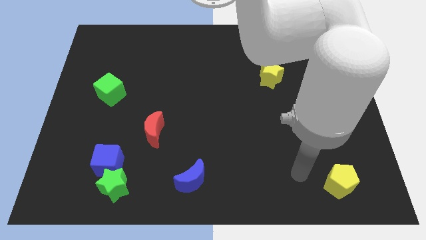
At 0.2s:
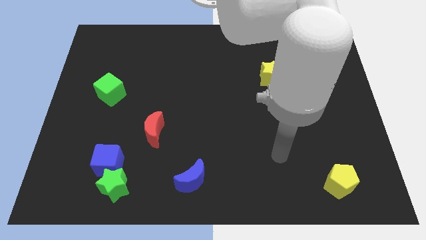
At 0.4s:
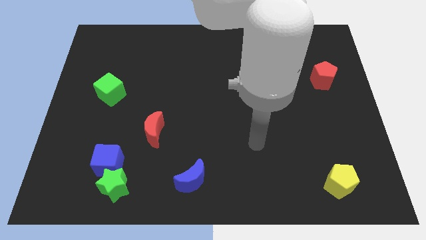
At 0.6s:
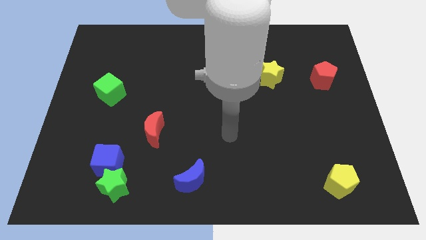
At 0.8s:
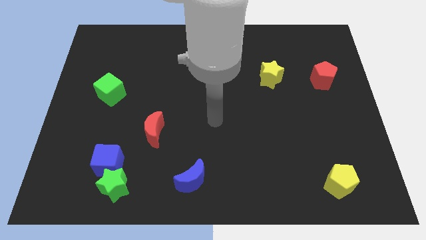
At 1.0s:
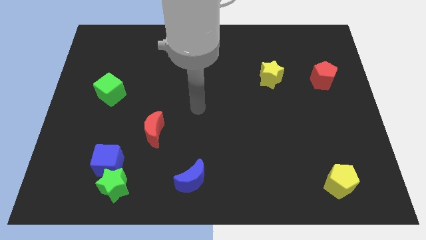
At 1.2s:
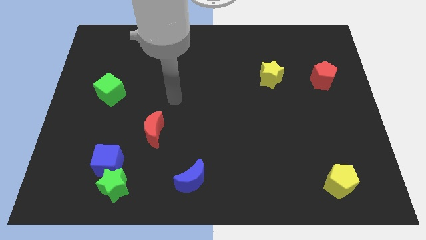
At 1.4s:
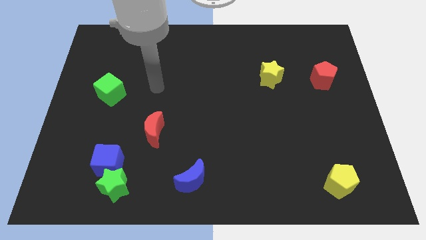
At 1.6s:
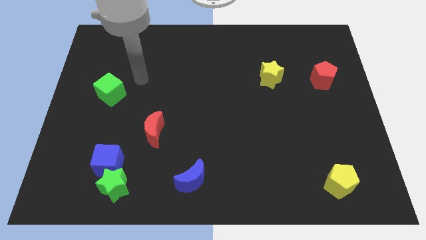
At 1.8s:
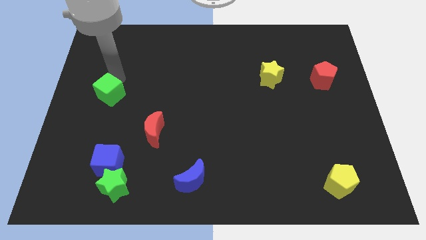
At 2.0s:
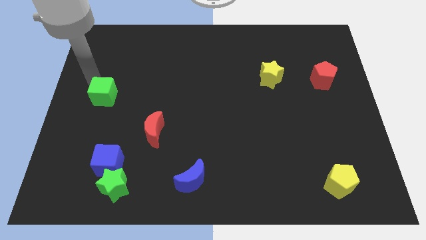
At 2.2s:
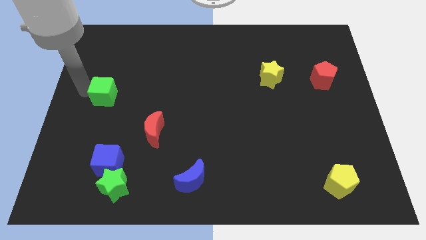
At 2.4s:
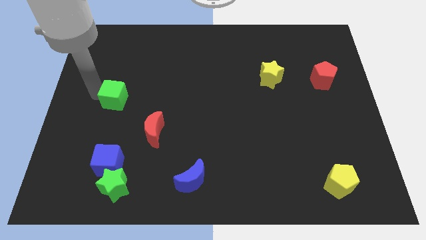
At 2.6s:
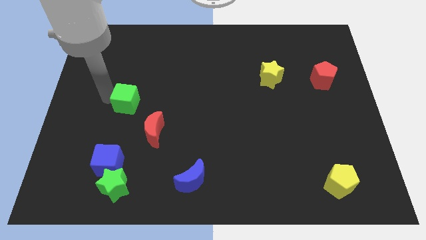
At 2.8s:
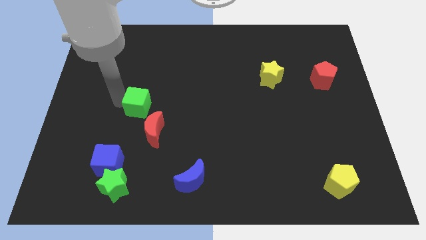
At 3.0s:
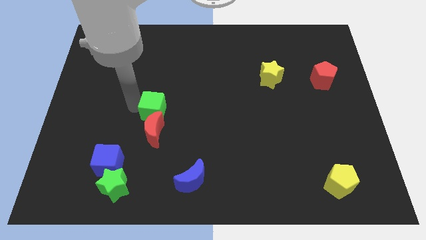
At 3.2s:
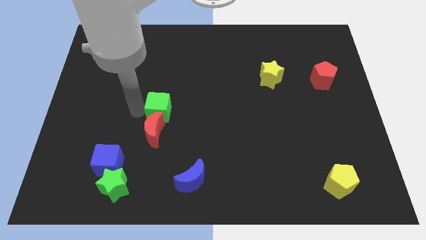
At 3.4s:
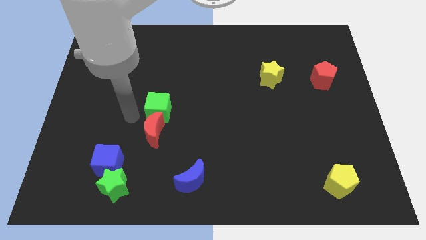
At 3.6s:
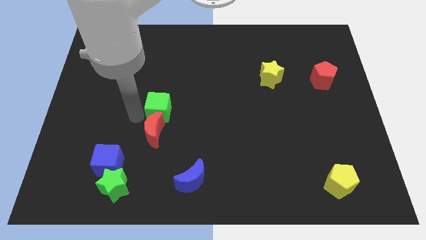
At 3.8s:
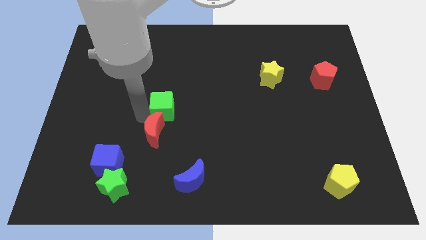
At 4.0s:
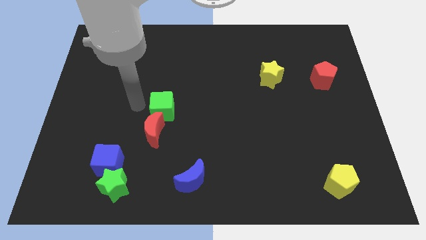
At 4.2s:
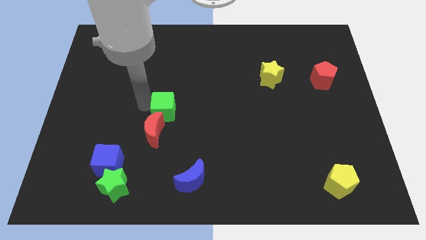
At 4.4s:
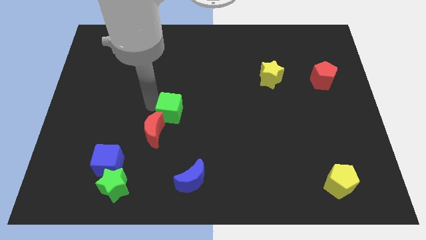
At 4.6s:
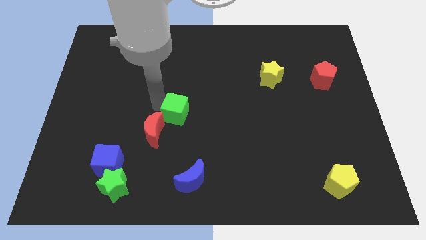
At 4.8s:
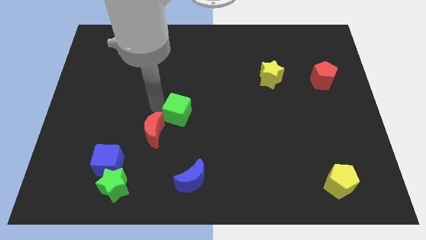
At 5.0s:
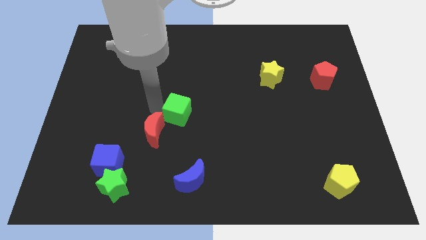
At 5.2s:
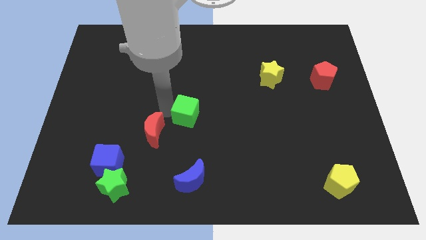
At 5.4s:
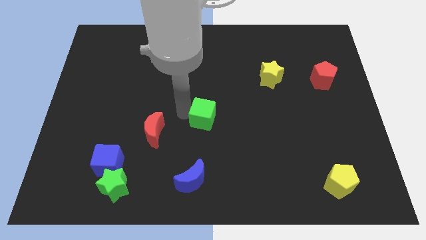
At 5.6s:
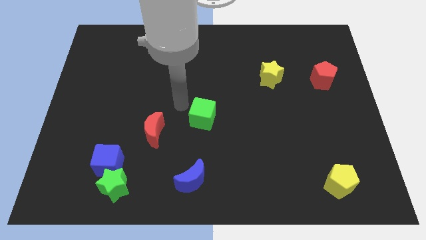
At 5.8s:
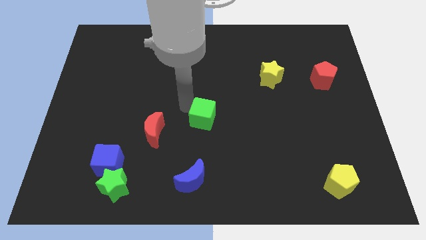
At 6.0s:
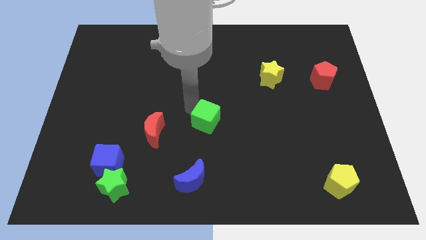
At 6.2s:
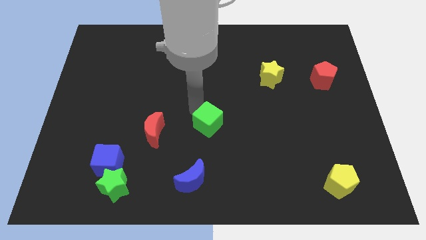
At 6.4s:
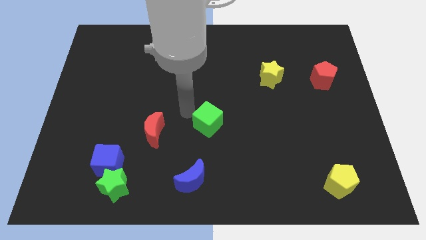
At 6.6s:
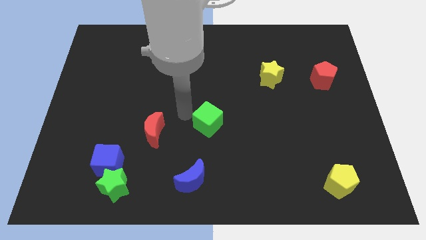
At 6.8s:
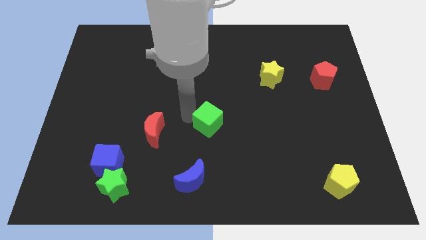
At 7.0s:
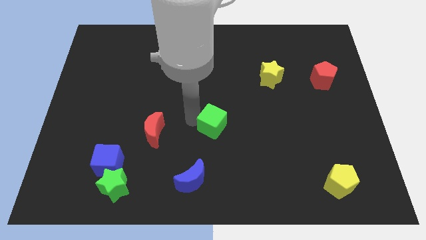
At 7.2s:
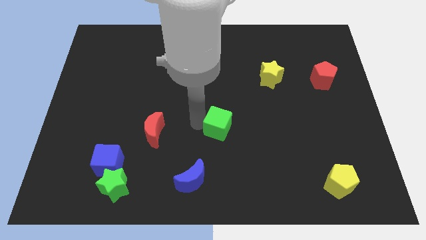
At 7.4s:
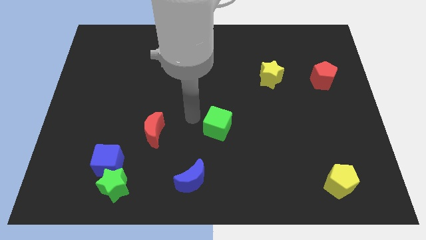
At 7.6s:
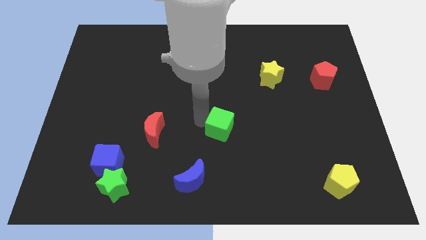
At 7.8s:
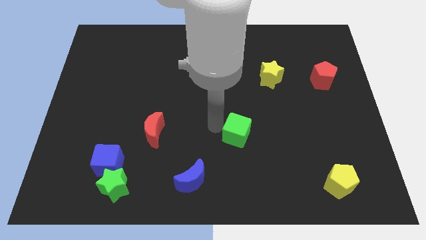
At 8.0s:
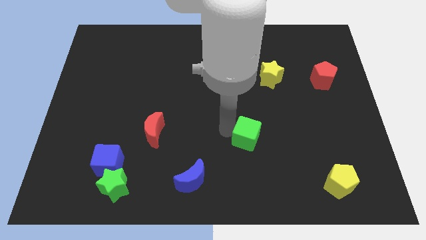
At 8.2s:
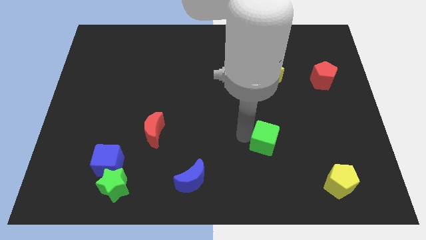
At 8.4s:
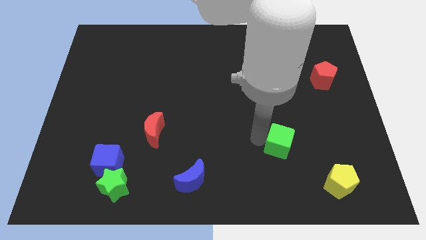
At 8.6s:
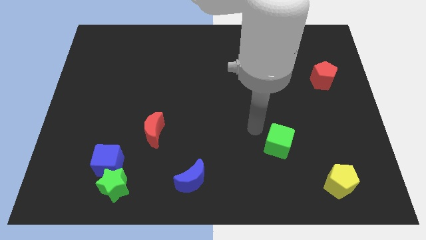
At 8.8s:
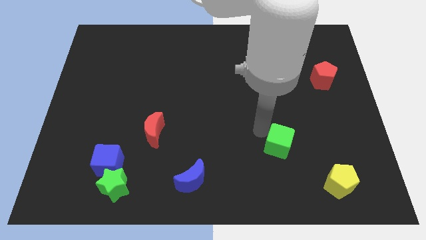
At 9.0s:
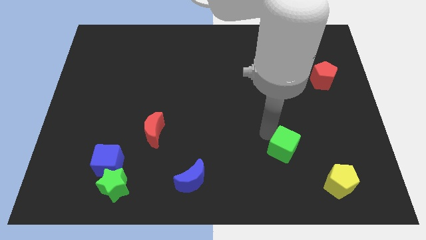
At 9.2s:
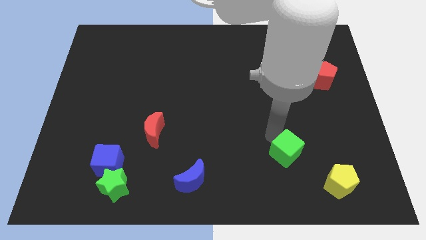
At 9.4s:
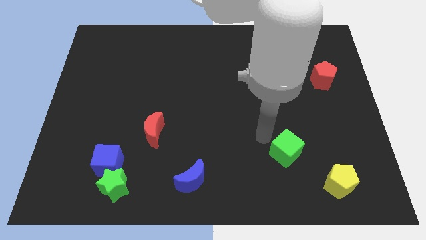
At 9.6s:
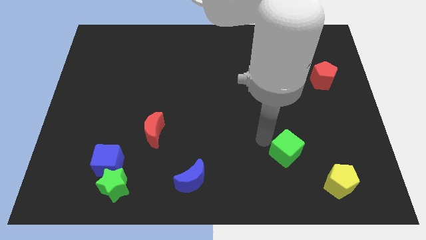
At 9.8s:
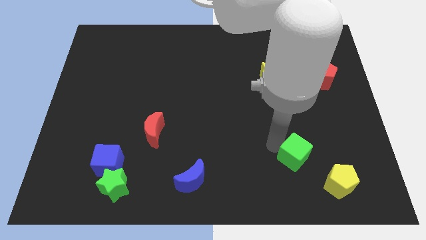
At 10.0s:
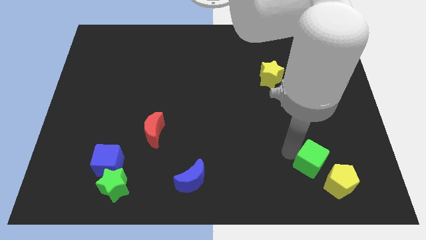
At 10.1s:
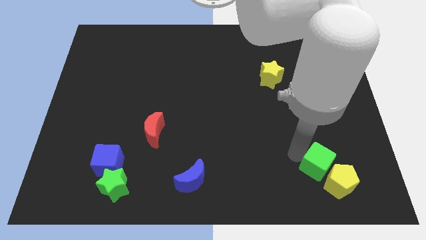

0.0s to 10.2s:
move the green cube close to the yellow pentagon

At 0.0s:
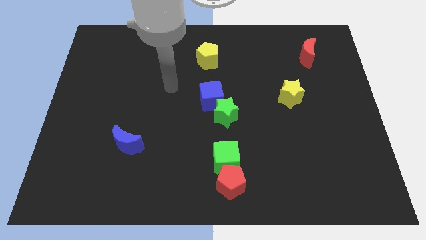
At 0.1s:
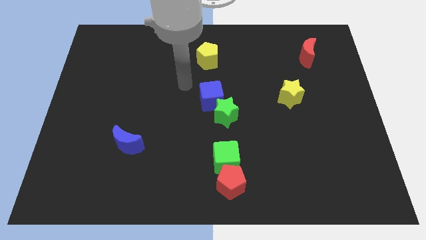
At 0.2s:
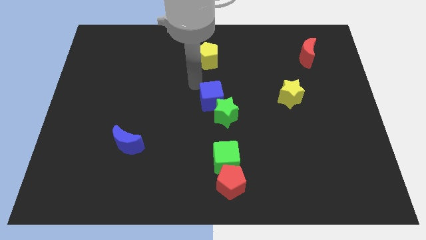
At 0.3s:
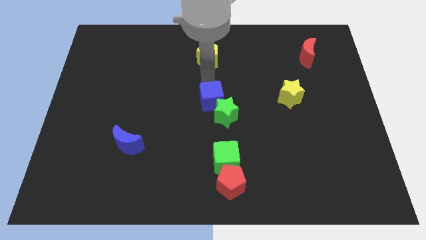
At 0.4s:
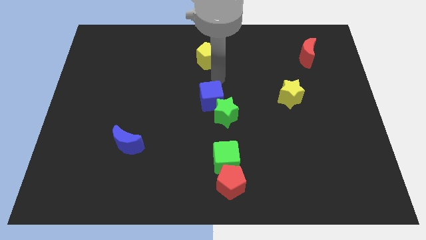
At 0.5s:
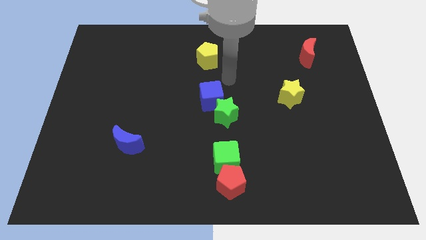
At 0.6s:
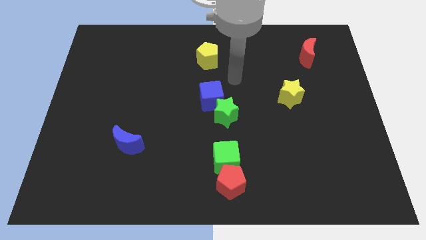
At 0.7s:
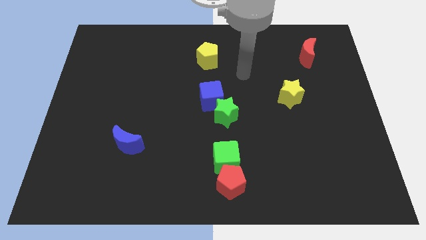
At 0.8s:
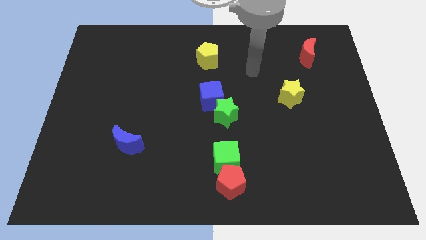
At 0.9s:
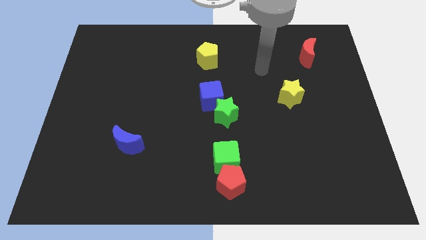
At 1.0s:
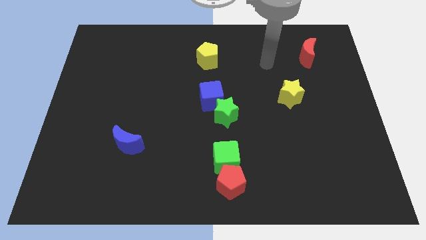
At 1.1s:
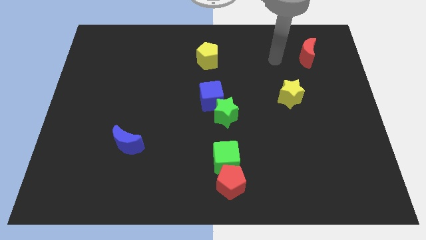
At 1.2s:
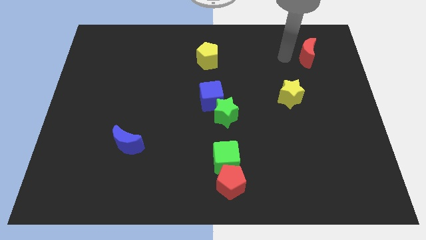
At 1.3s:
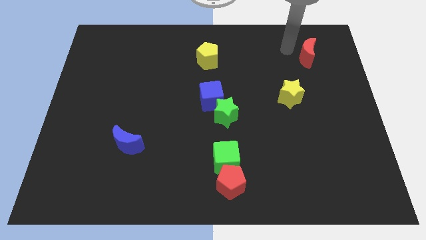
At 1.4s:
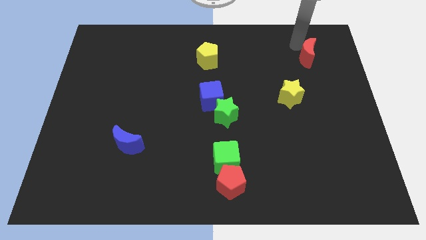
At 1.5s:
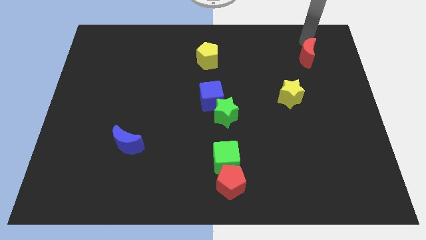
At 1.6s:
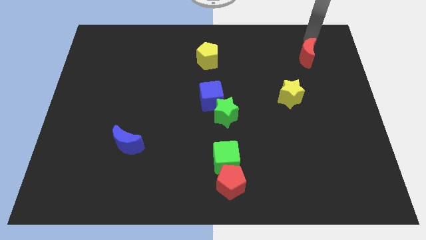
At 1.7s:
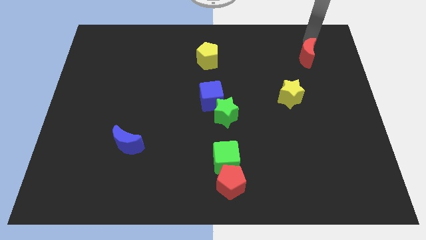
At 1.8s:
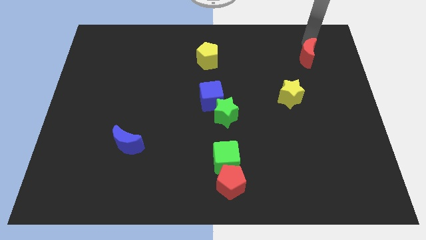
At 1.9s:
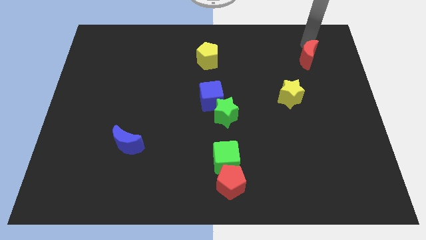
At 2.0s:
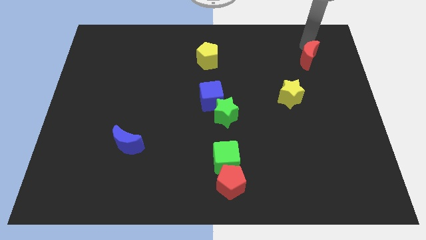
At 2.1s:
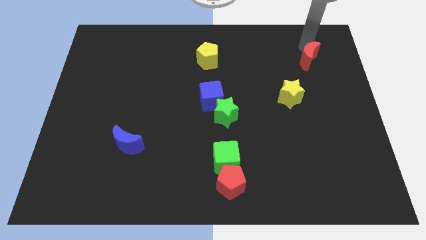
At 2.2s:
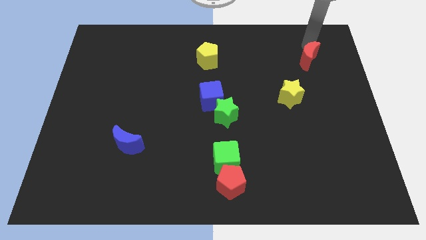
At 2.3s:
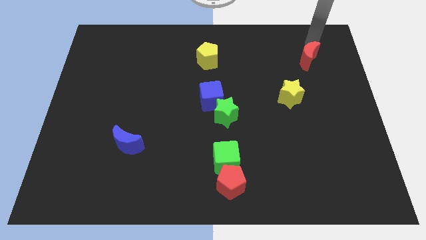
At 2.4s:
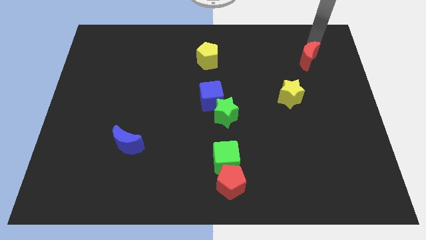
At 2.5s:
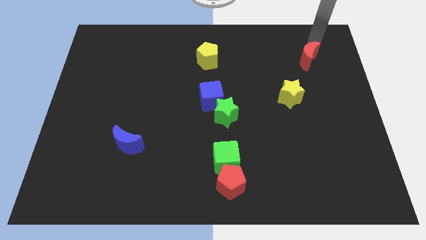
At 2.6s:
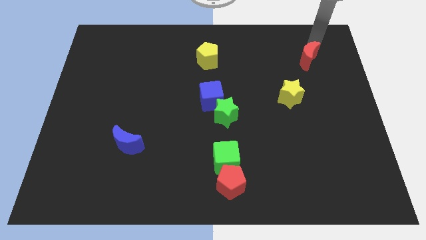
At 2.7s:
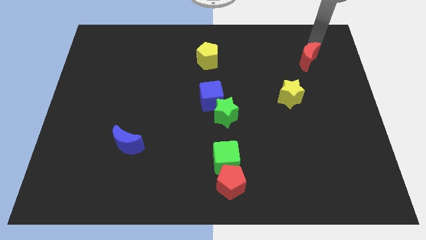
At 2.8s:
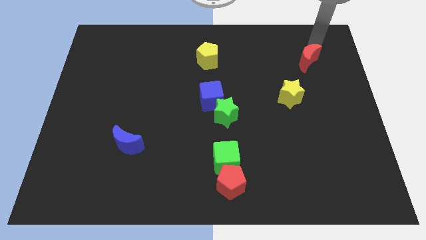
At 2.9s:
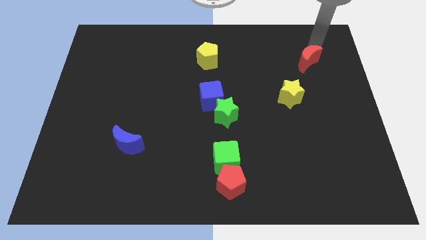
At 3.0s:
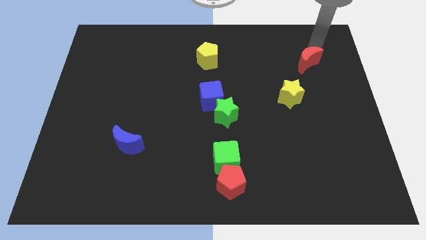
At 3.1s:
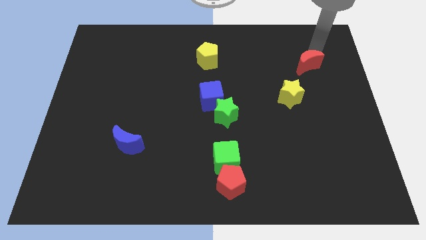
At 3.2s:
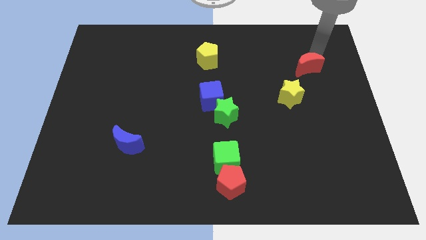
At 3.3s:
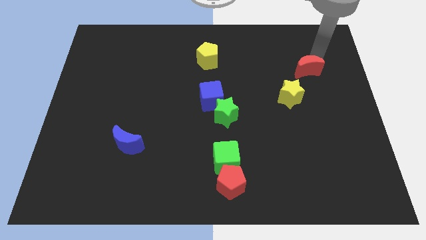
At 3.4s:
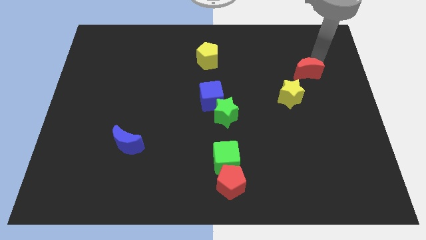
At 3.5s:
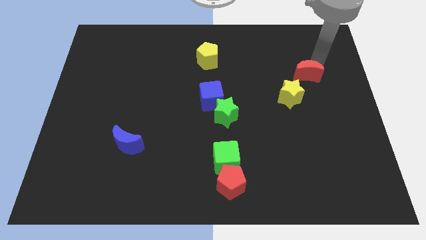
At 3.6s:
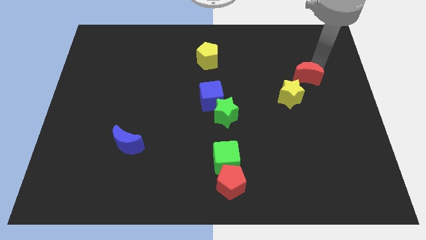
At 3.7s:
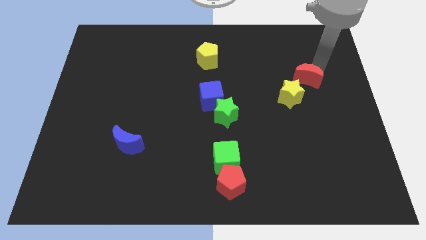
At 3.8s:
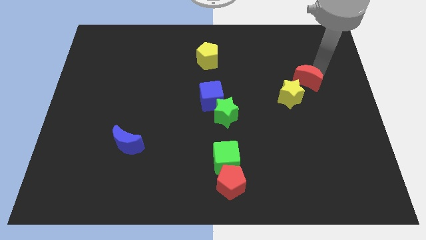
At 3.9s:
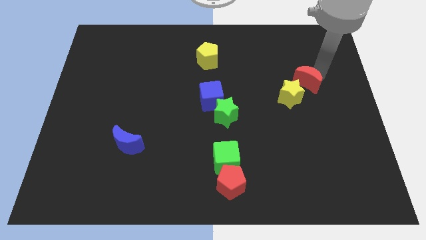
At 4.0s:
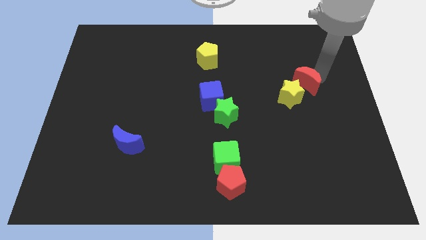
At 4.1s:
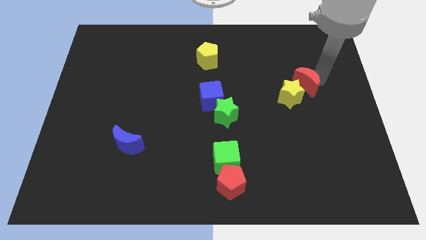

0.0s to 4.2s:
push the red moon next to the yellow star
